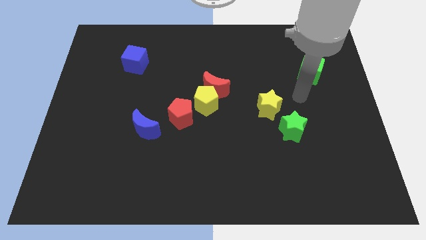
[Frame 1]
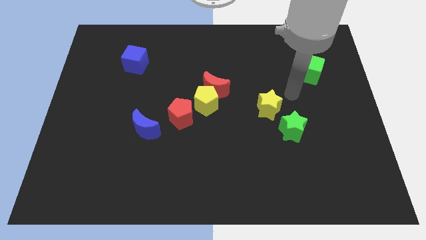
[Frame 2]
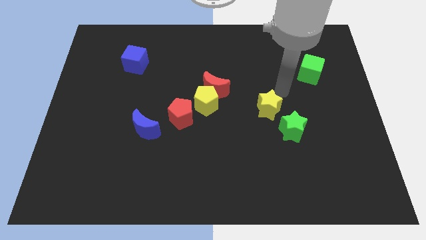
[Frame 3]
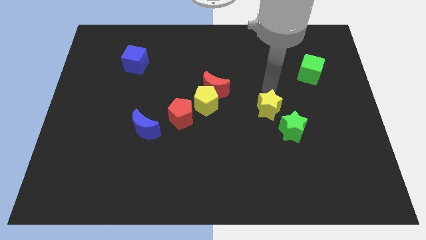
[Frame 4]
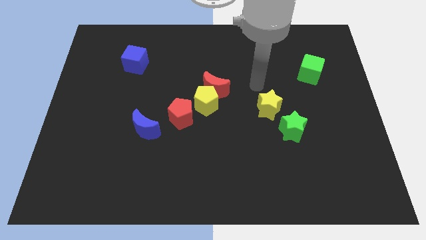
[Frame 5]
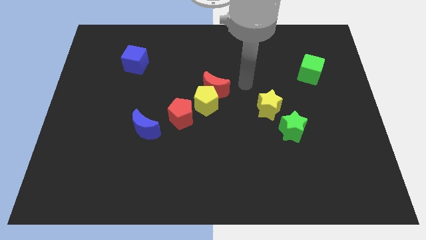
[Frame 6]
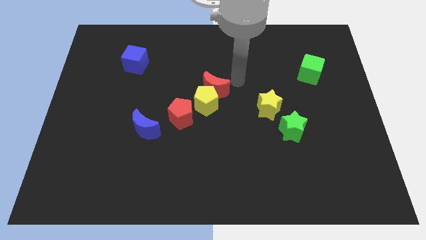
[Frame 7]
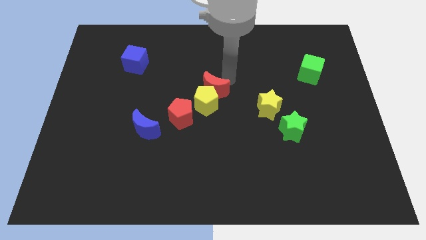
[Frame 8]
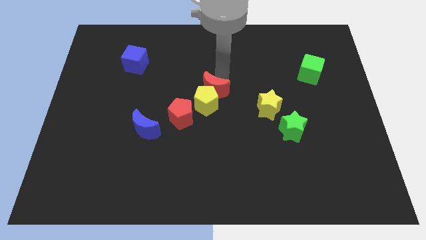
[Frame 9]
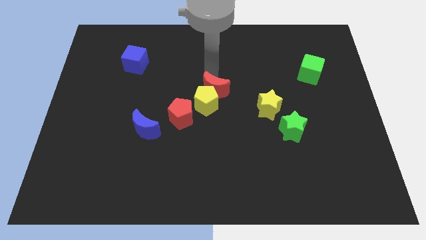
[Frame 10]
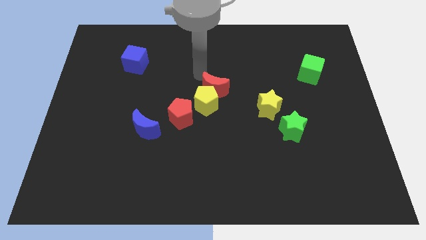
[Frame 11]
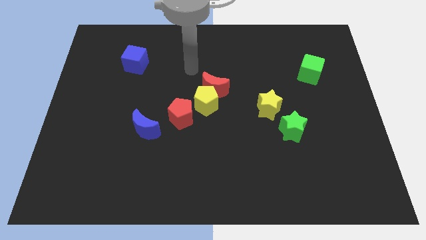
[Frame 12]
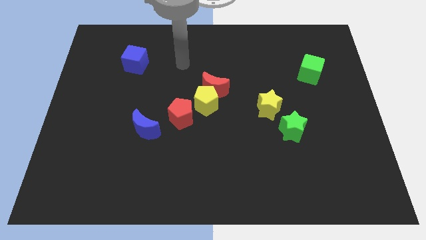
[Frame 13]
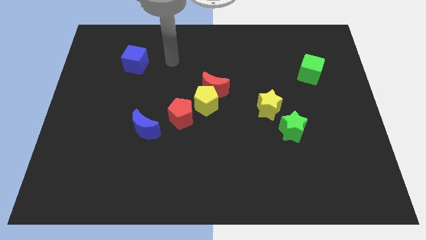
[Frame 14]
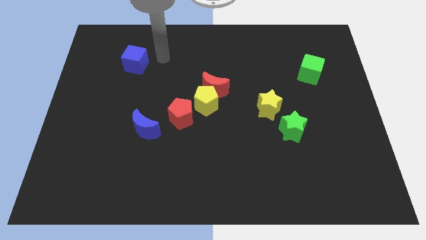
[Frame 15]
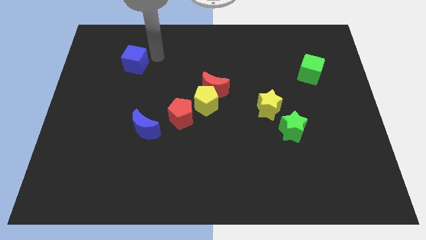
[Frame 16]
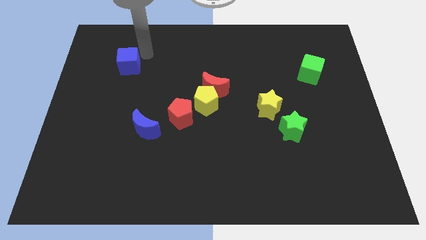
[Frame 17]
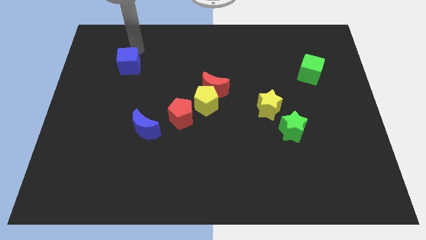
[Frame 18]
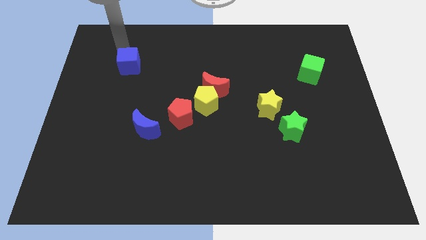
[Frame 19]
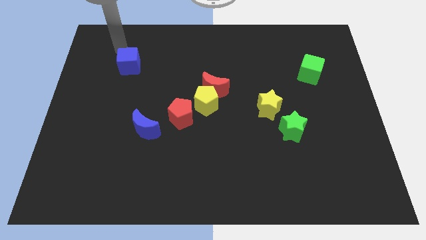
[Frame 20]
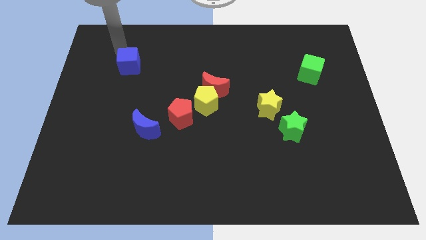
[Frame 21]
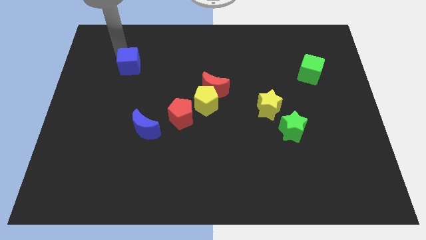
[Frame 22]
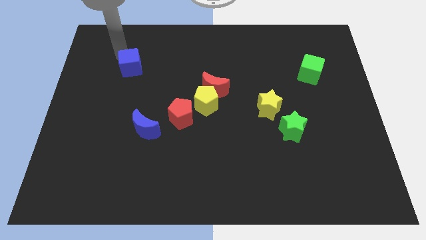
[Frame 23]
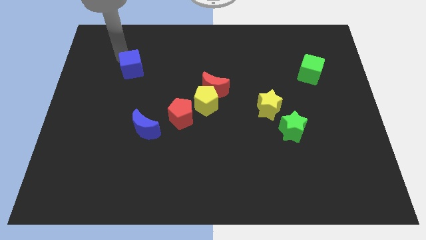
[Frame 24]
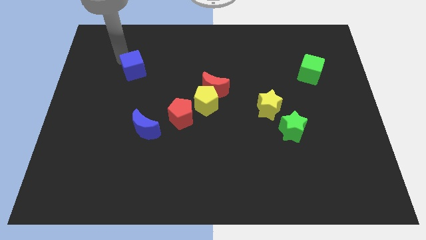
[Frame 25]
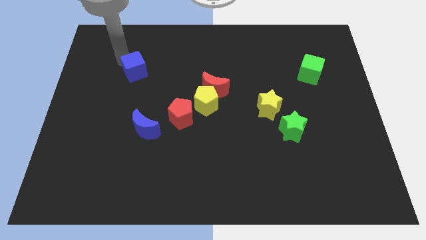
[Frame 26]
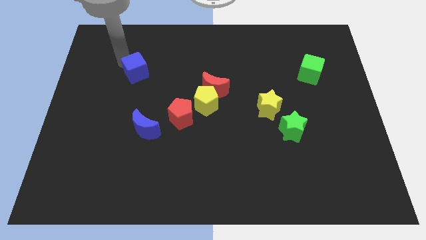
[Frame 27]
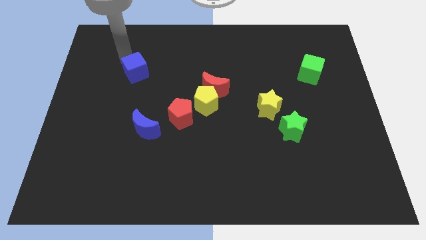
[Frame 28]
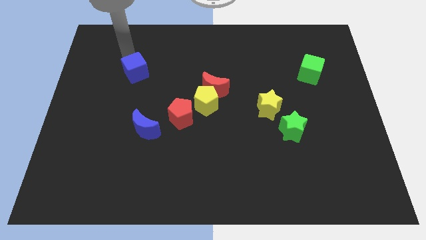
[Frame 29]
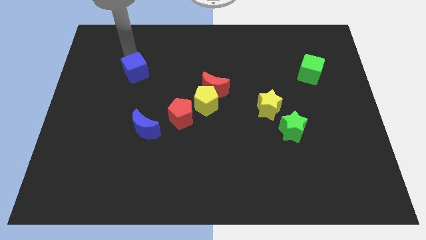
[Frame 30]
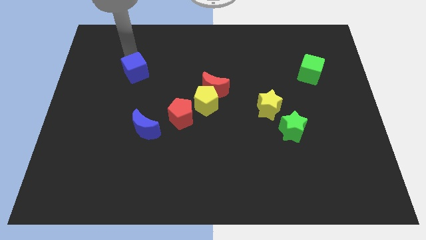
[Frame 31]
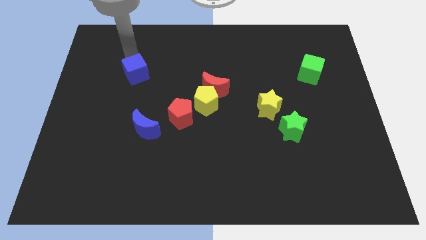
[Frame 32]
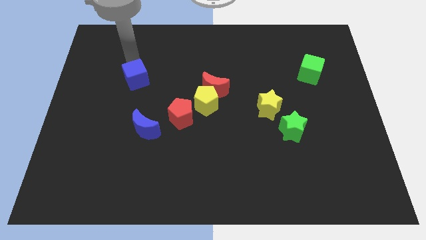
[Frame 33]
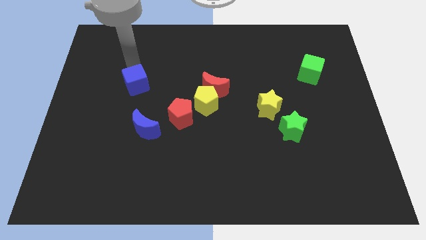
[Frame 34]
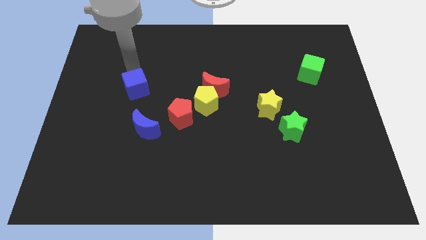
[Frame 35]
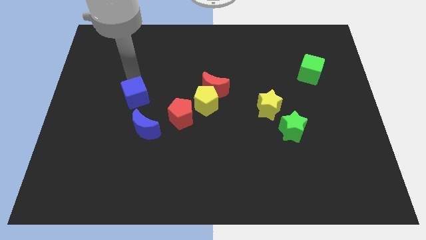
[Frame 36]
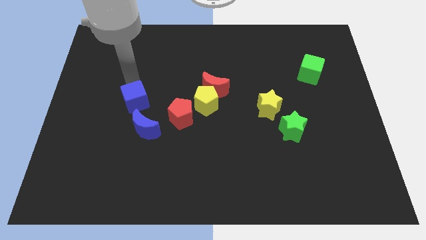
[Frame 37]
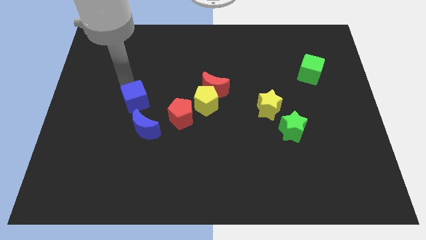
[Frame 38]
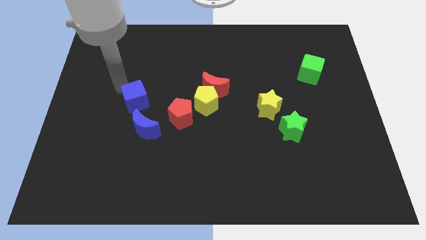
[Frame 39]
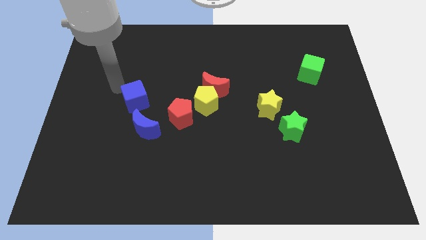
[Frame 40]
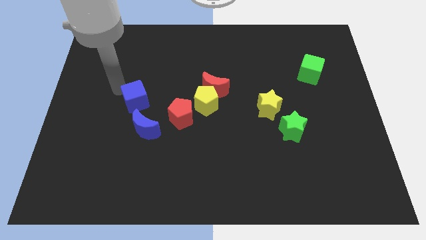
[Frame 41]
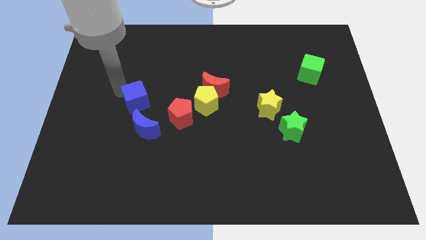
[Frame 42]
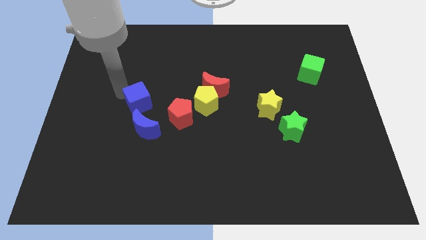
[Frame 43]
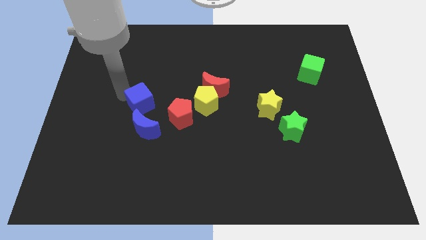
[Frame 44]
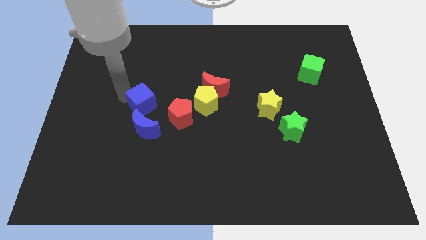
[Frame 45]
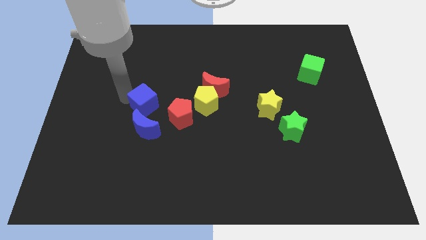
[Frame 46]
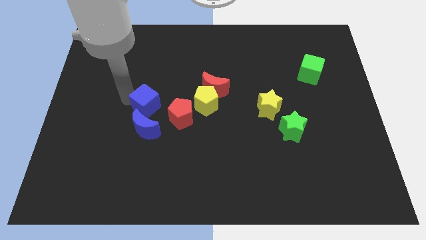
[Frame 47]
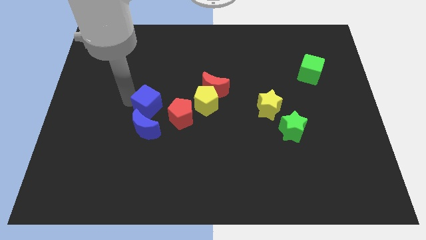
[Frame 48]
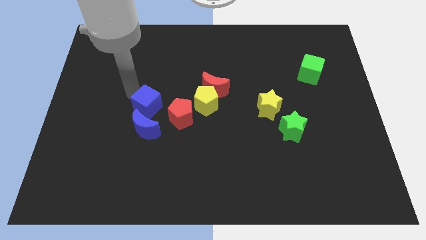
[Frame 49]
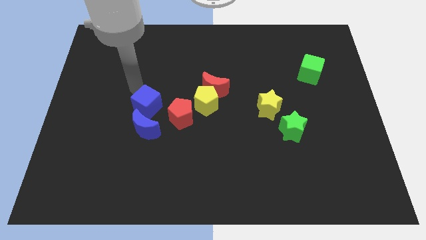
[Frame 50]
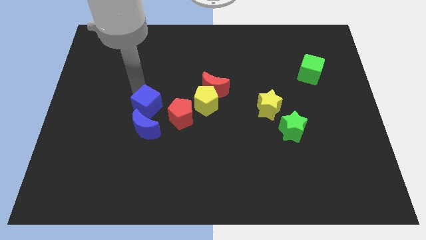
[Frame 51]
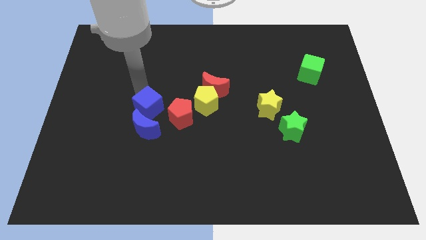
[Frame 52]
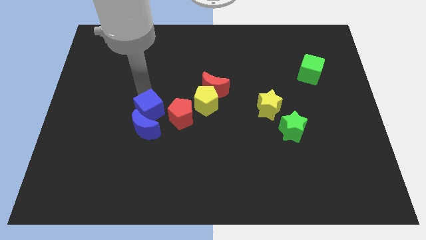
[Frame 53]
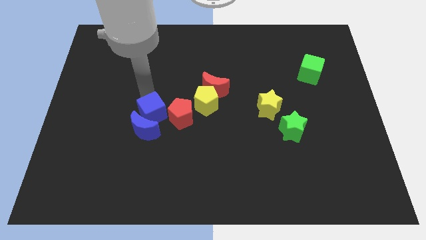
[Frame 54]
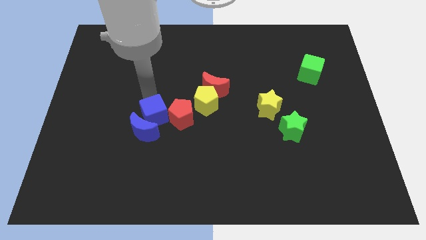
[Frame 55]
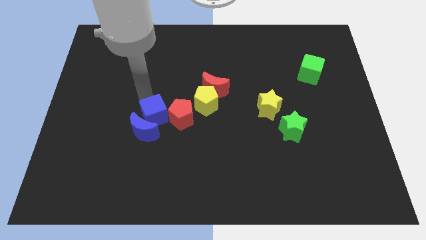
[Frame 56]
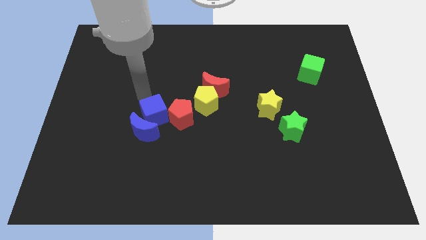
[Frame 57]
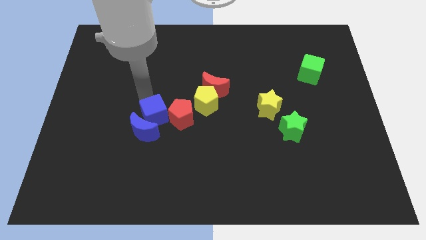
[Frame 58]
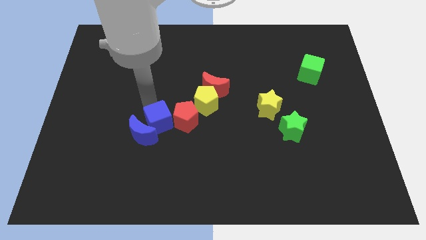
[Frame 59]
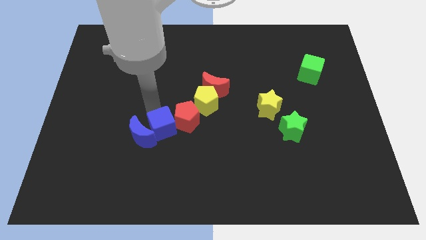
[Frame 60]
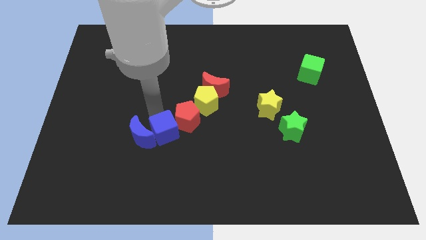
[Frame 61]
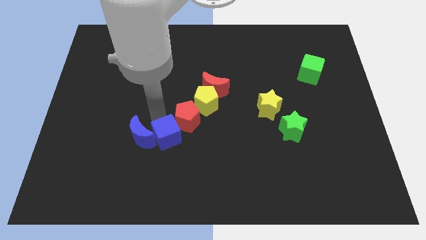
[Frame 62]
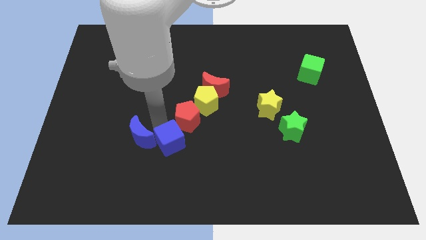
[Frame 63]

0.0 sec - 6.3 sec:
push the blue cube diagonally downwards and right

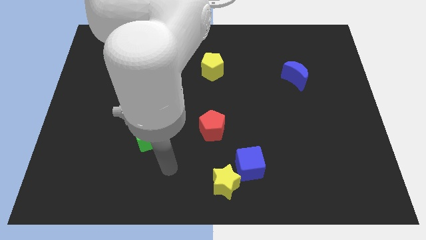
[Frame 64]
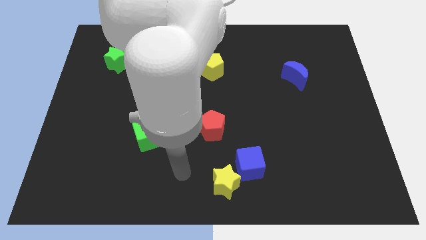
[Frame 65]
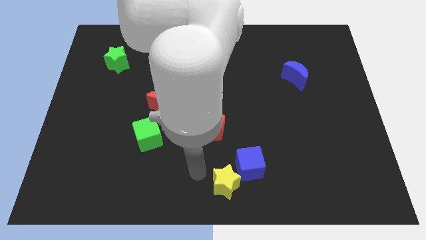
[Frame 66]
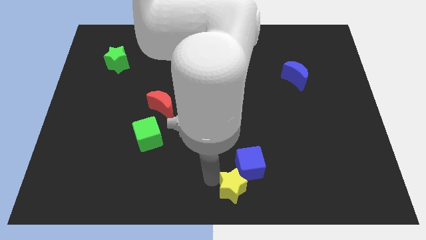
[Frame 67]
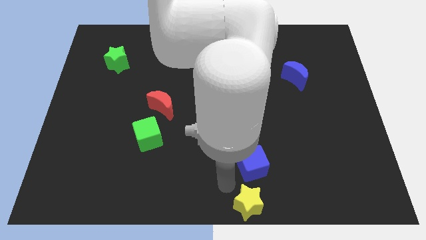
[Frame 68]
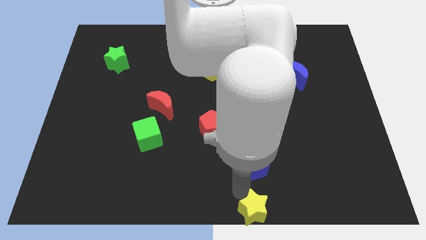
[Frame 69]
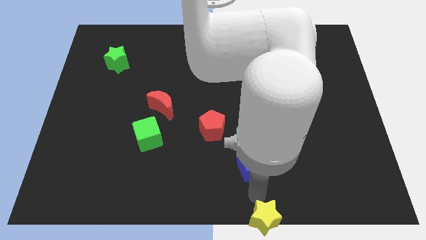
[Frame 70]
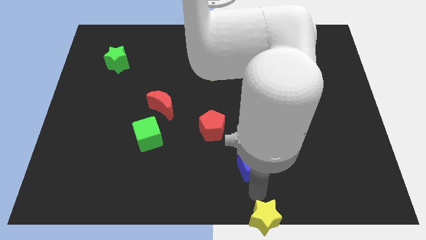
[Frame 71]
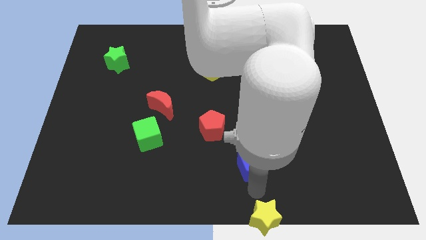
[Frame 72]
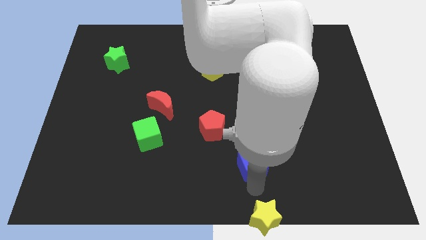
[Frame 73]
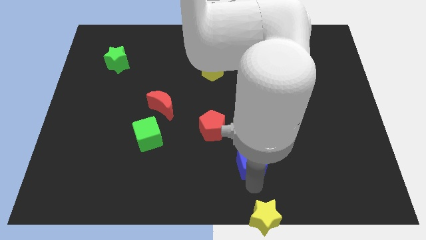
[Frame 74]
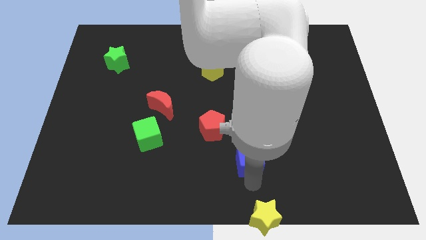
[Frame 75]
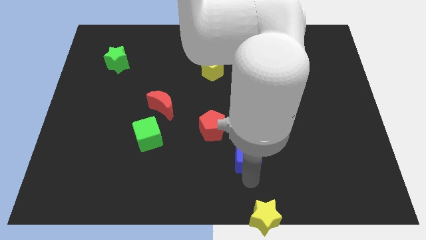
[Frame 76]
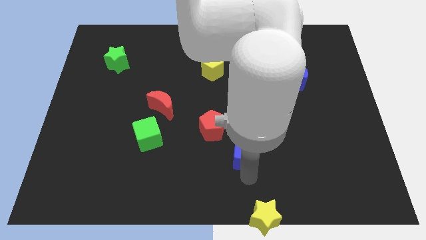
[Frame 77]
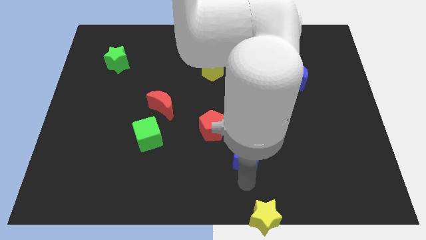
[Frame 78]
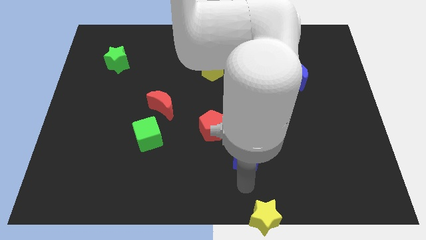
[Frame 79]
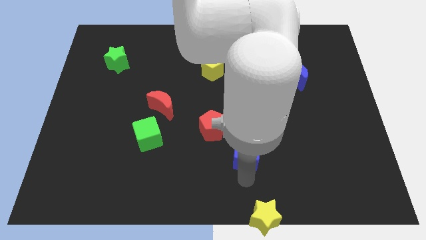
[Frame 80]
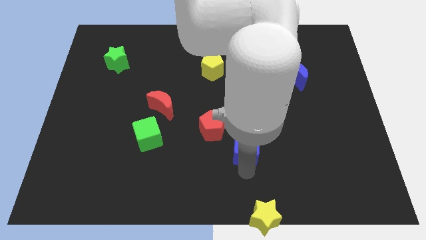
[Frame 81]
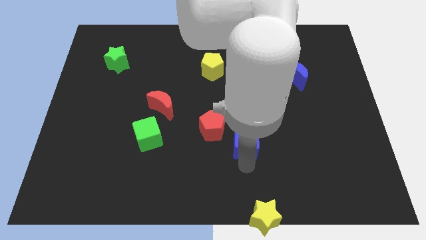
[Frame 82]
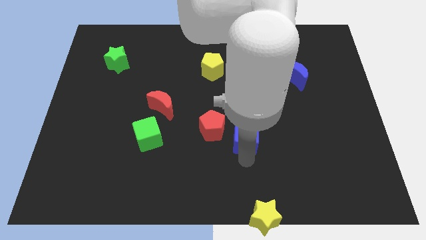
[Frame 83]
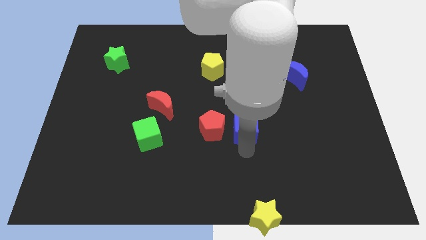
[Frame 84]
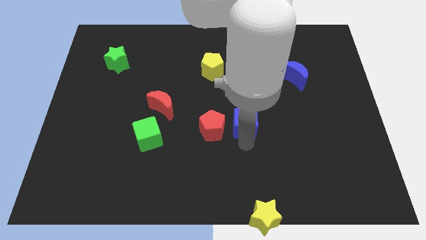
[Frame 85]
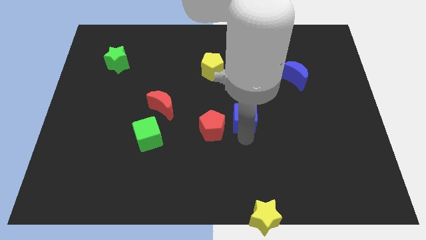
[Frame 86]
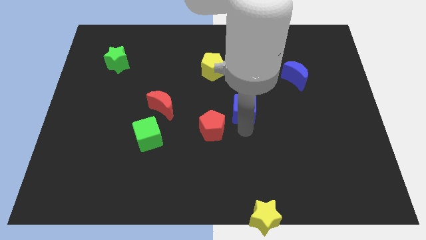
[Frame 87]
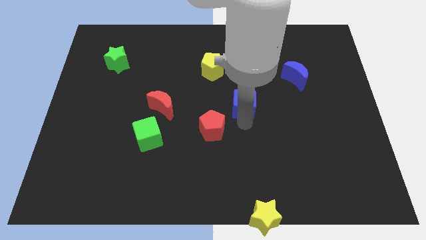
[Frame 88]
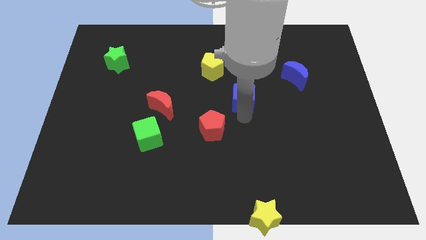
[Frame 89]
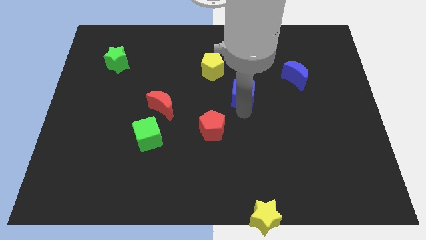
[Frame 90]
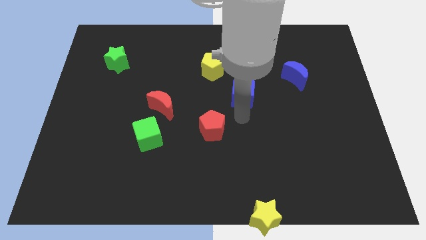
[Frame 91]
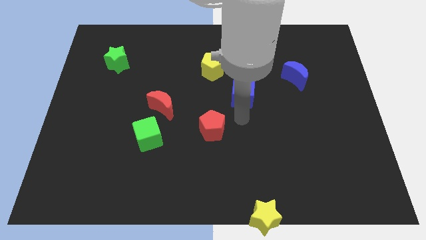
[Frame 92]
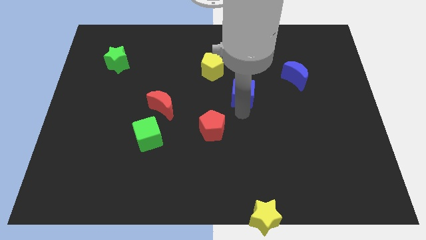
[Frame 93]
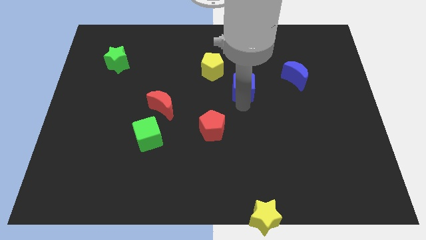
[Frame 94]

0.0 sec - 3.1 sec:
slide the blue cube upwards
